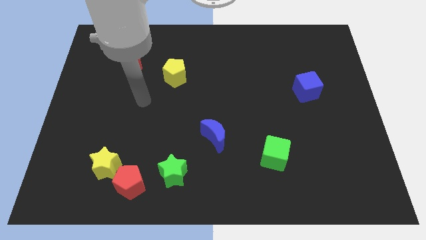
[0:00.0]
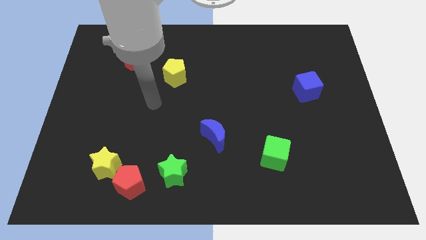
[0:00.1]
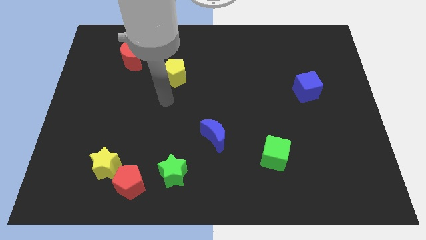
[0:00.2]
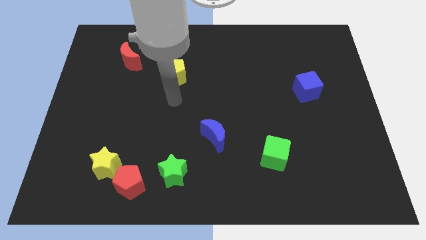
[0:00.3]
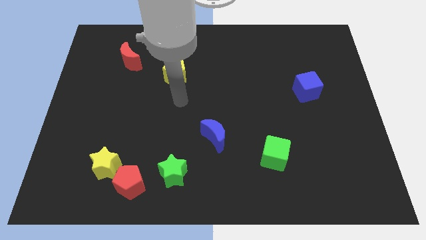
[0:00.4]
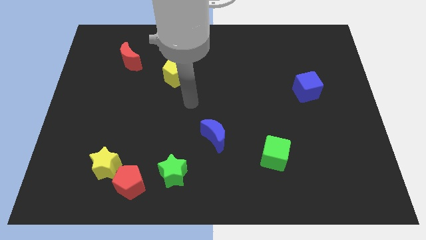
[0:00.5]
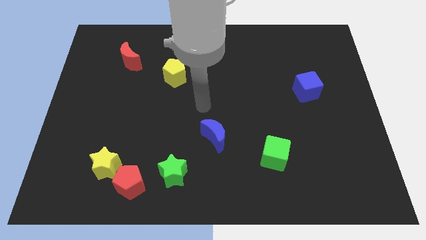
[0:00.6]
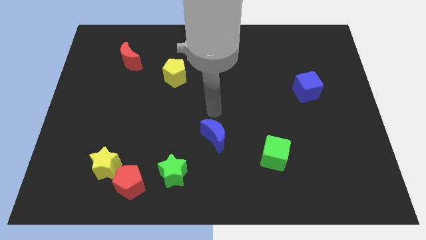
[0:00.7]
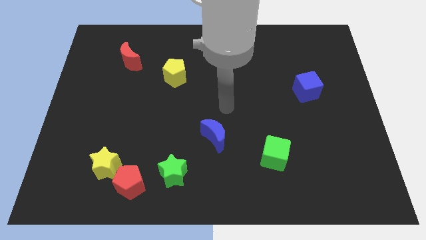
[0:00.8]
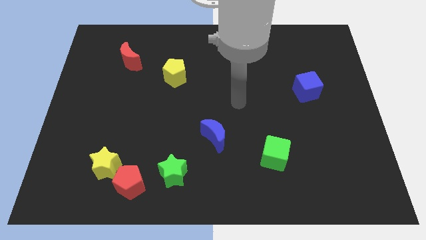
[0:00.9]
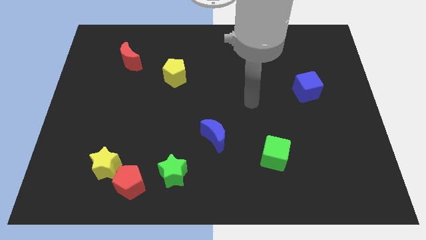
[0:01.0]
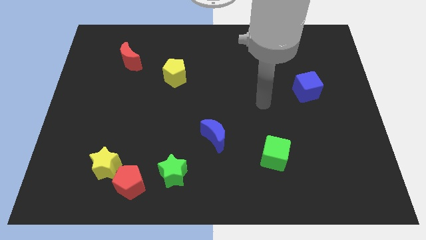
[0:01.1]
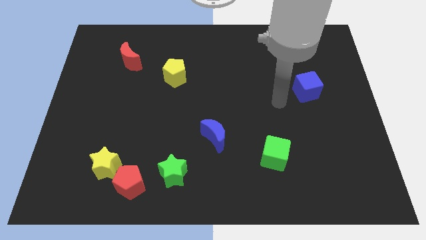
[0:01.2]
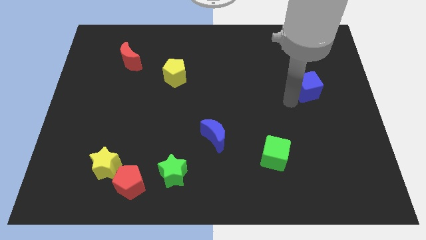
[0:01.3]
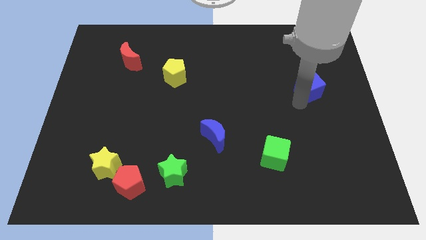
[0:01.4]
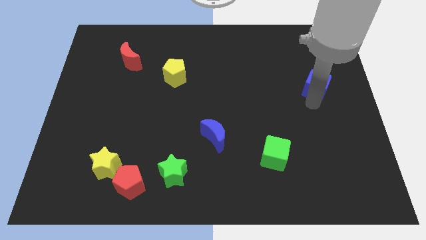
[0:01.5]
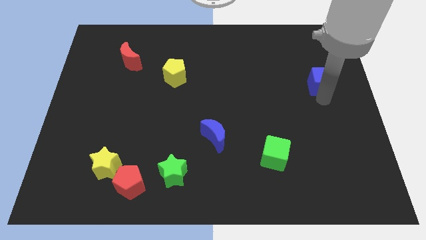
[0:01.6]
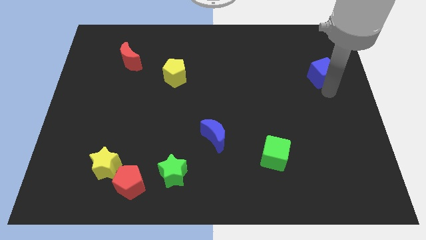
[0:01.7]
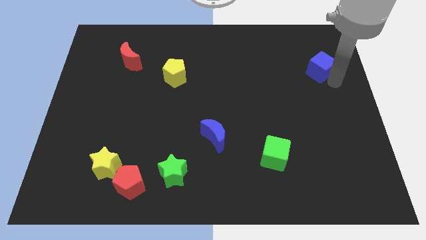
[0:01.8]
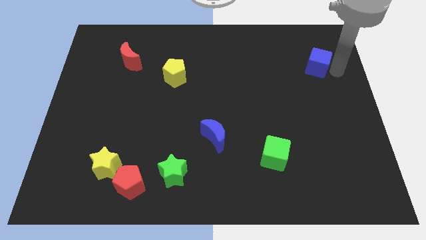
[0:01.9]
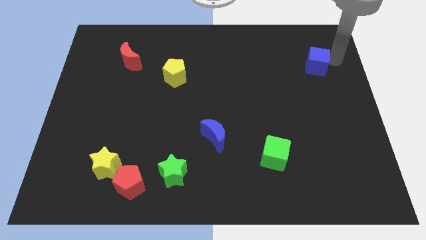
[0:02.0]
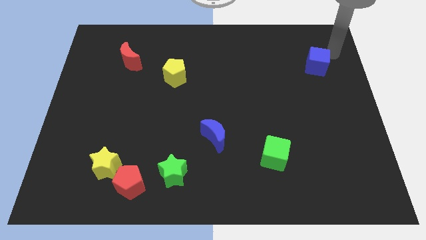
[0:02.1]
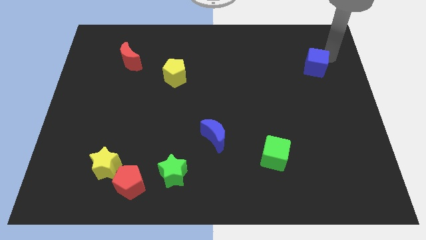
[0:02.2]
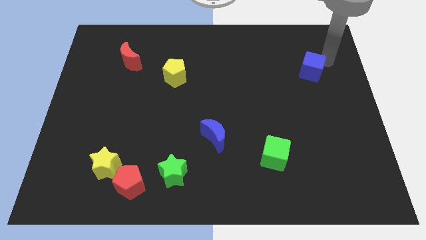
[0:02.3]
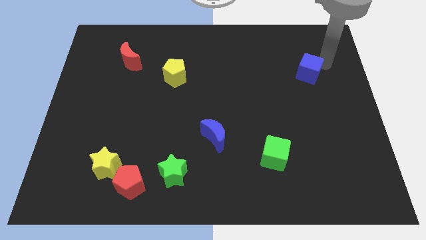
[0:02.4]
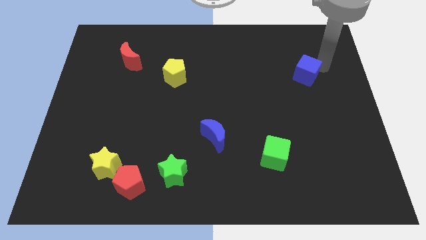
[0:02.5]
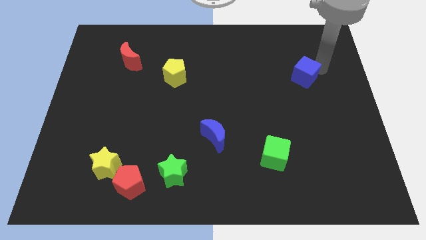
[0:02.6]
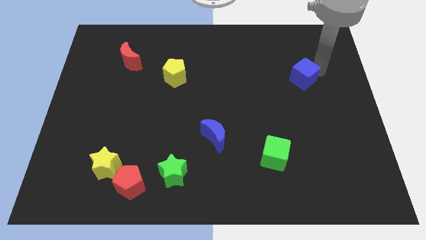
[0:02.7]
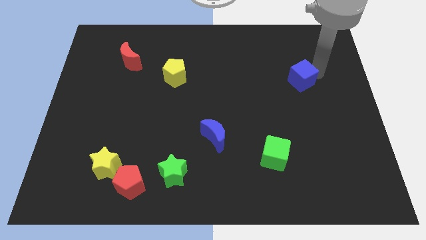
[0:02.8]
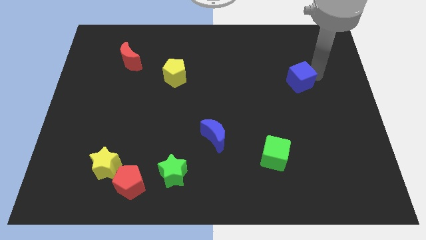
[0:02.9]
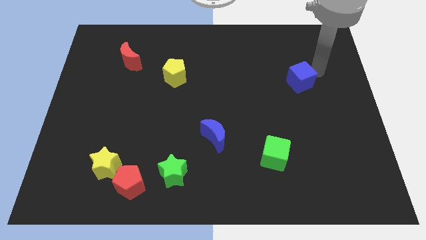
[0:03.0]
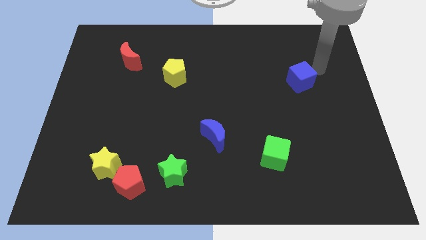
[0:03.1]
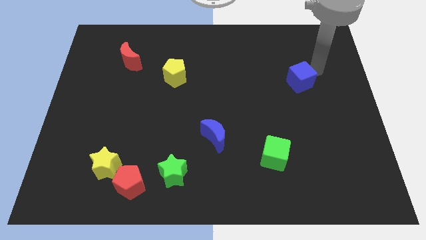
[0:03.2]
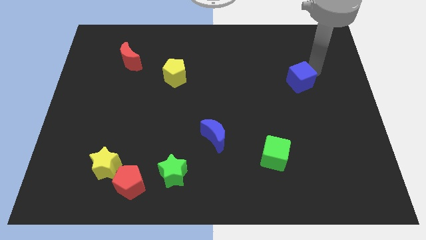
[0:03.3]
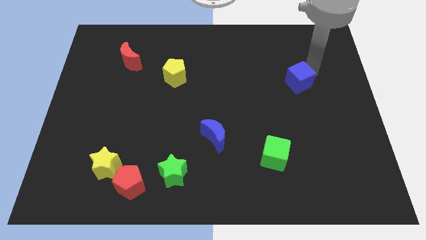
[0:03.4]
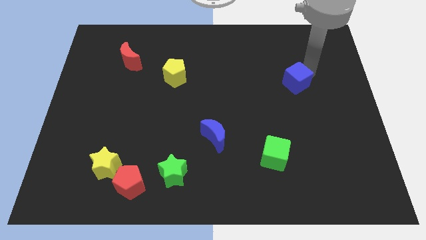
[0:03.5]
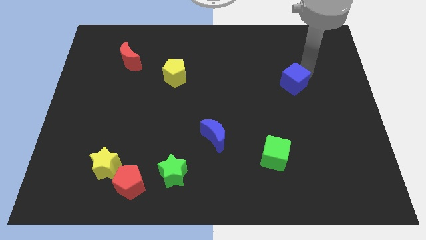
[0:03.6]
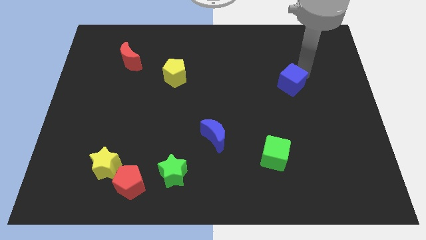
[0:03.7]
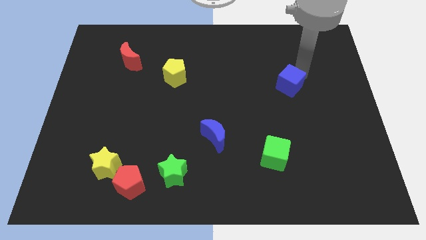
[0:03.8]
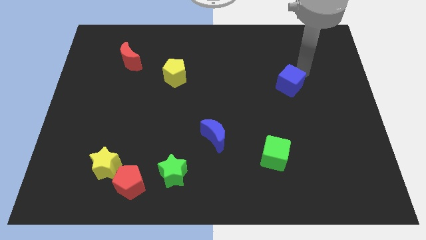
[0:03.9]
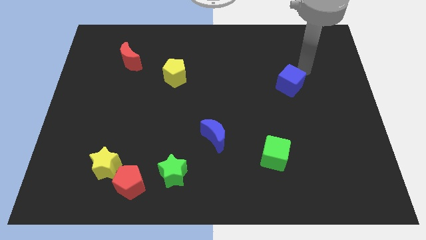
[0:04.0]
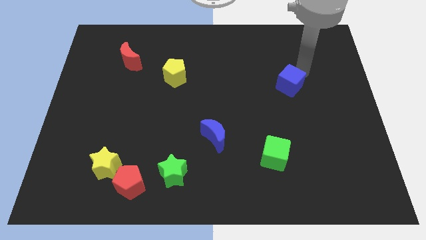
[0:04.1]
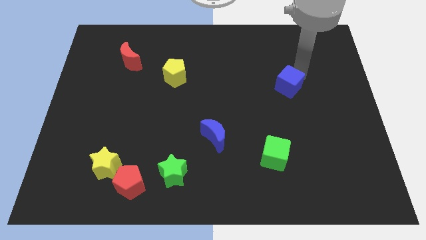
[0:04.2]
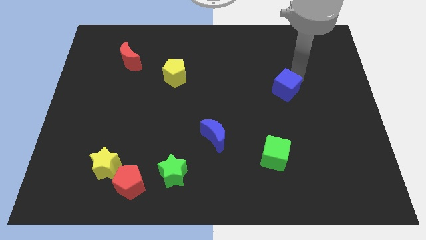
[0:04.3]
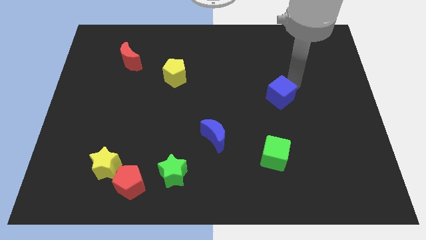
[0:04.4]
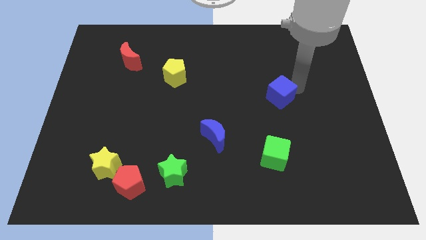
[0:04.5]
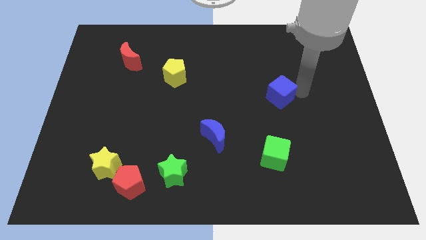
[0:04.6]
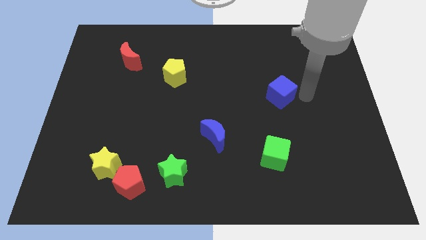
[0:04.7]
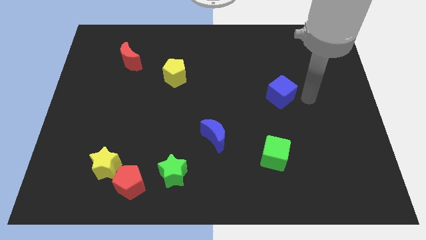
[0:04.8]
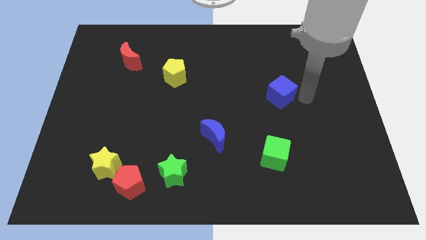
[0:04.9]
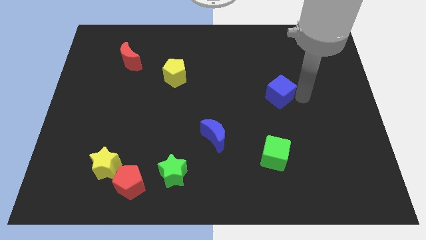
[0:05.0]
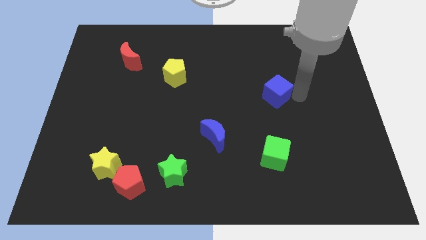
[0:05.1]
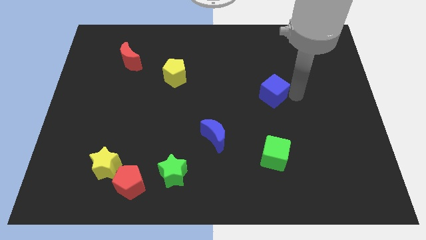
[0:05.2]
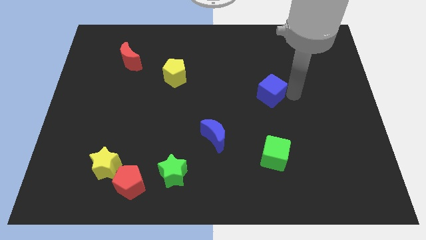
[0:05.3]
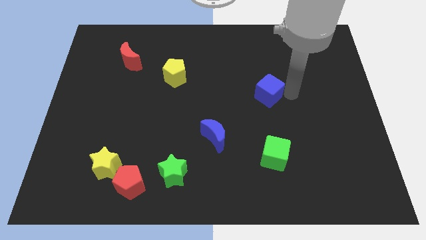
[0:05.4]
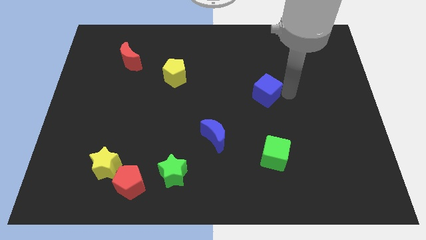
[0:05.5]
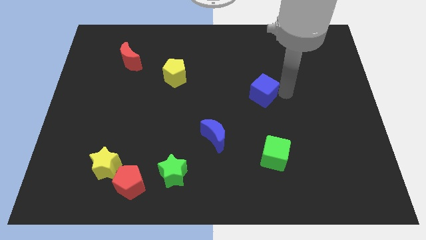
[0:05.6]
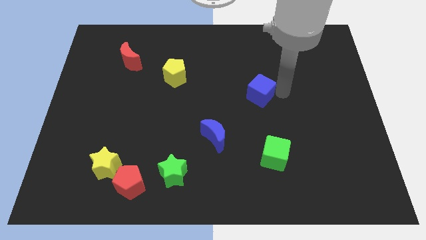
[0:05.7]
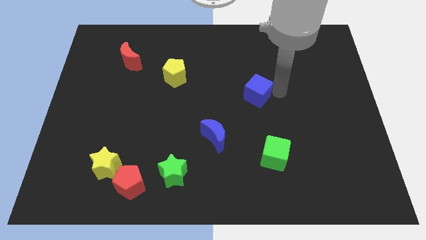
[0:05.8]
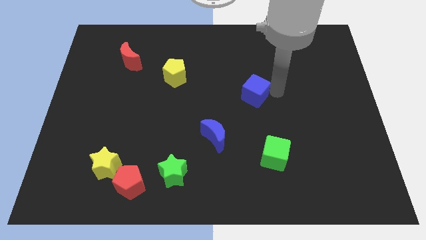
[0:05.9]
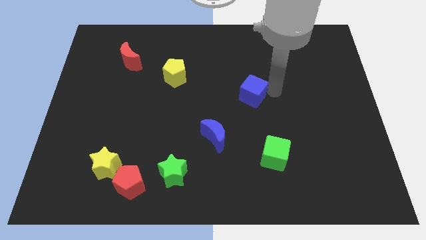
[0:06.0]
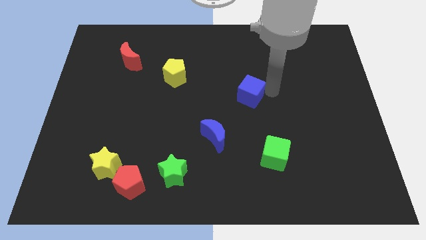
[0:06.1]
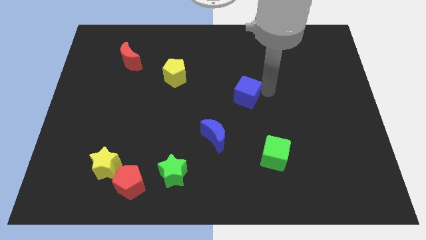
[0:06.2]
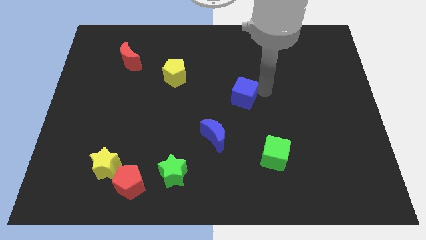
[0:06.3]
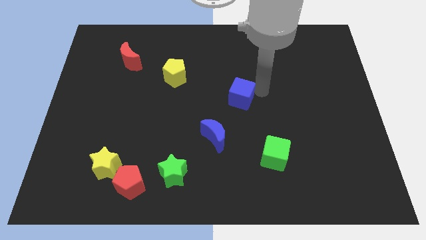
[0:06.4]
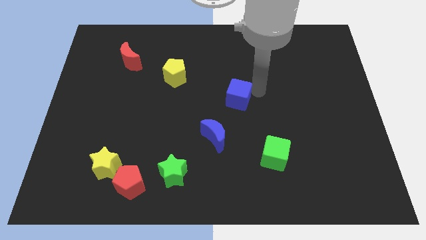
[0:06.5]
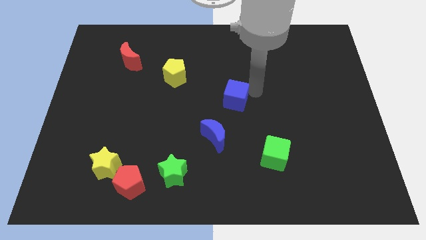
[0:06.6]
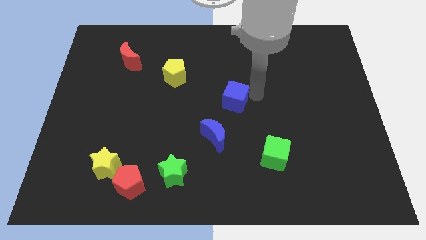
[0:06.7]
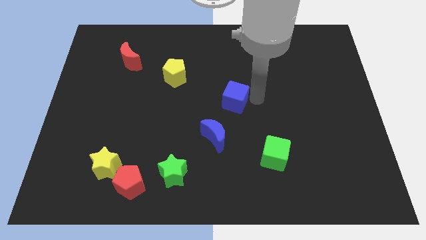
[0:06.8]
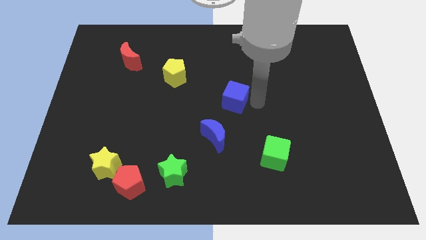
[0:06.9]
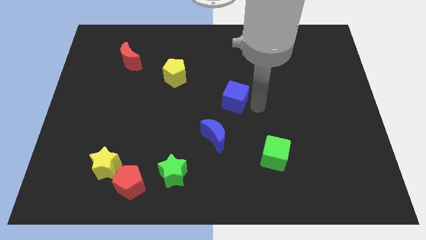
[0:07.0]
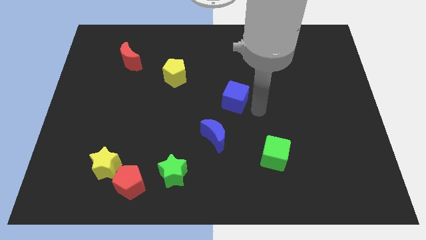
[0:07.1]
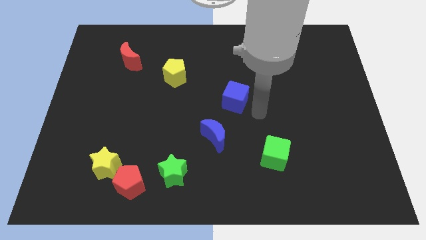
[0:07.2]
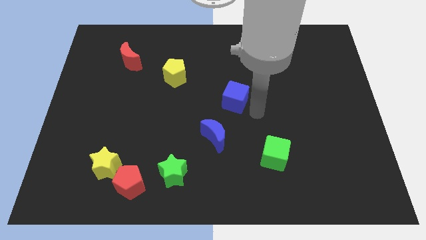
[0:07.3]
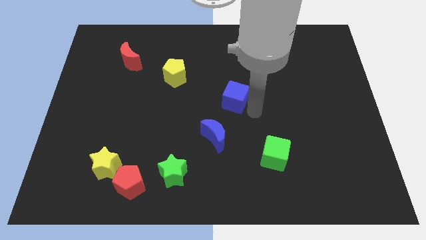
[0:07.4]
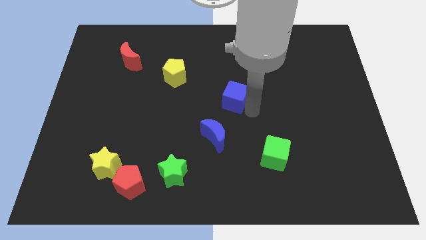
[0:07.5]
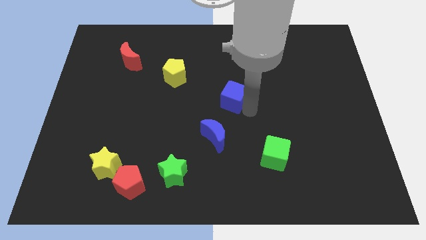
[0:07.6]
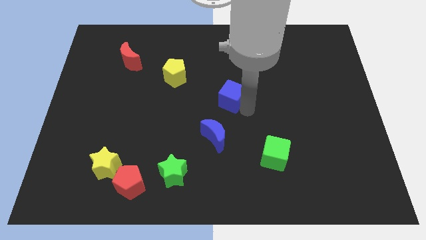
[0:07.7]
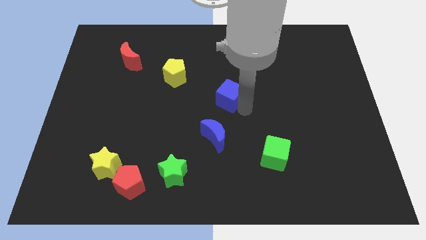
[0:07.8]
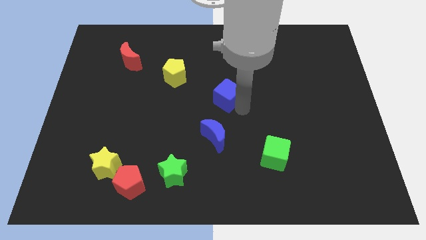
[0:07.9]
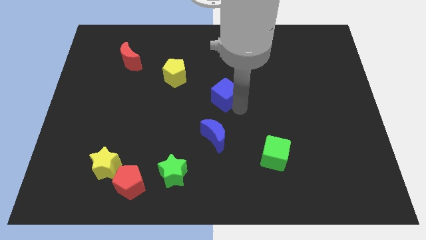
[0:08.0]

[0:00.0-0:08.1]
push the blue cube to the left
